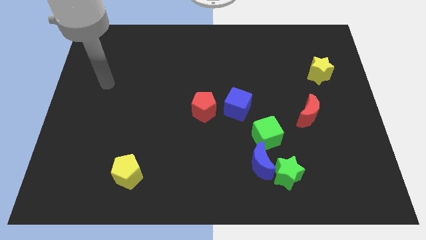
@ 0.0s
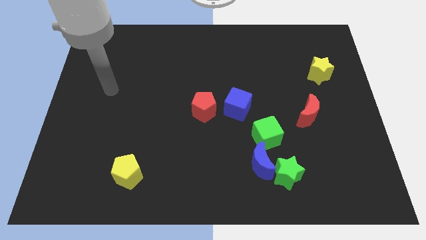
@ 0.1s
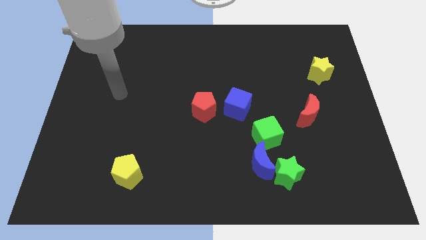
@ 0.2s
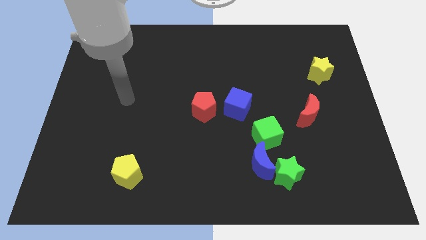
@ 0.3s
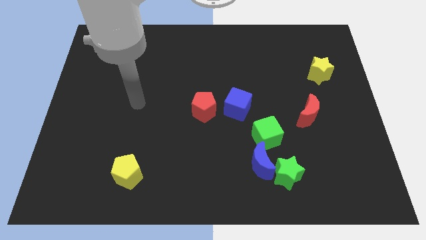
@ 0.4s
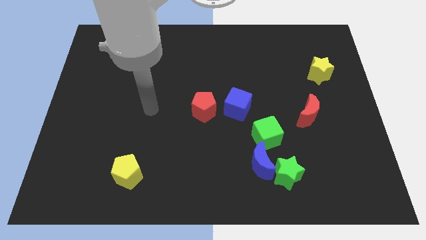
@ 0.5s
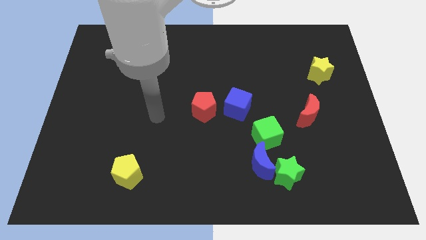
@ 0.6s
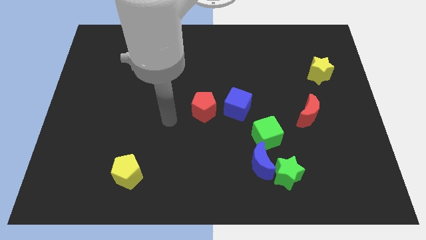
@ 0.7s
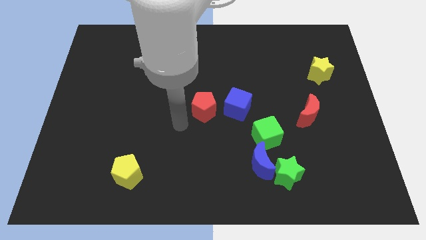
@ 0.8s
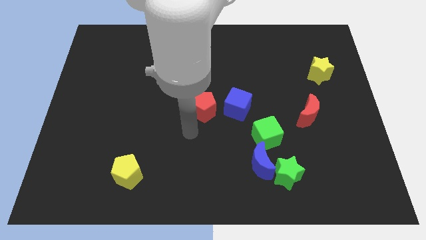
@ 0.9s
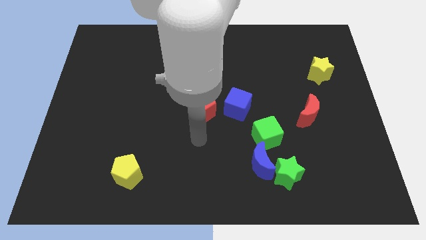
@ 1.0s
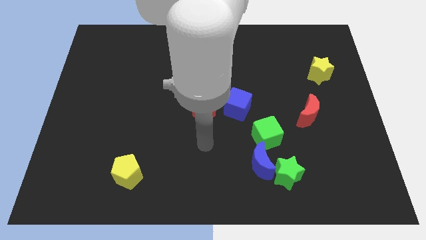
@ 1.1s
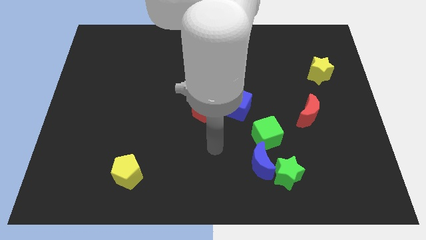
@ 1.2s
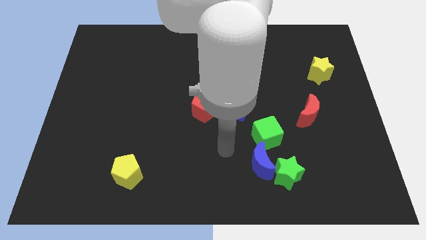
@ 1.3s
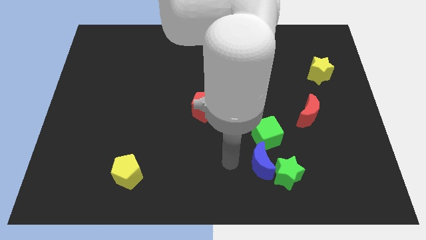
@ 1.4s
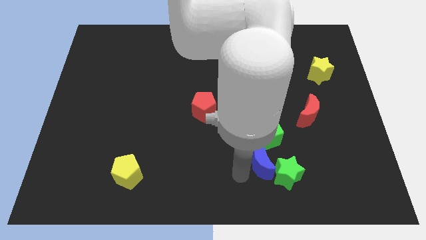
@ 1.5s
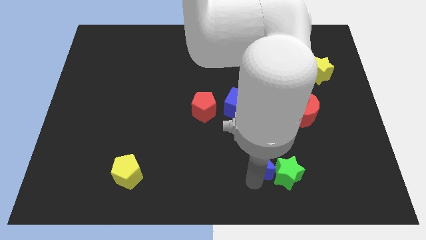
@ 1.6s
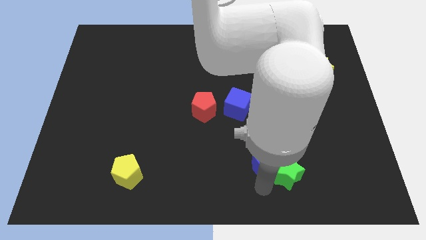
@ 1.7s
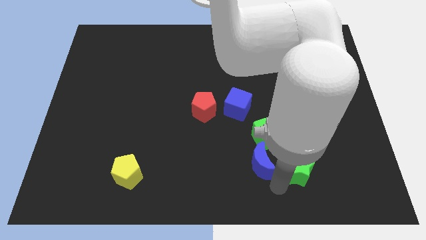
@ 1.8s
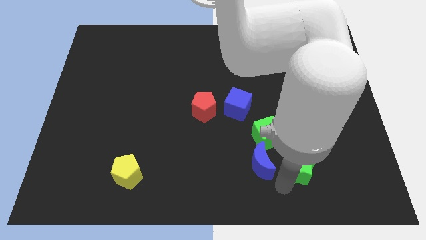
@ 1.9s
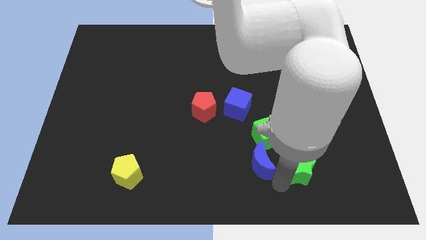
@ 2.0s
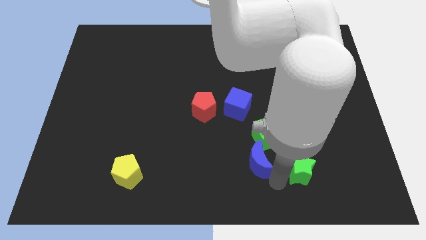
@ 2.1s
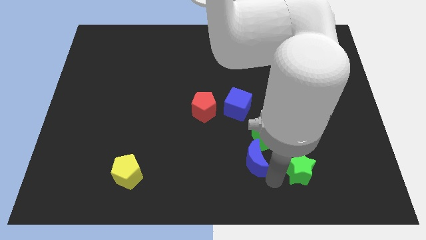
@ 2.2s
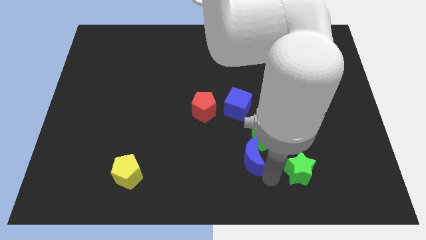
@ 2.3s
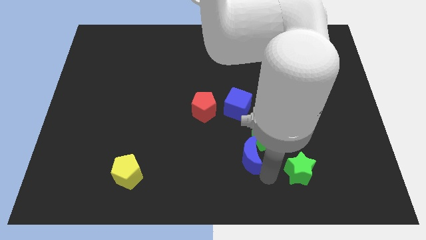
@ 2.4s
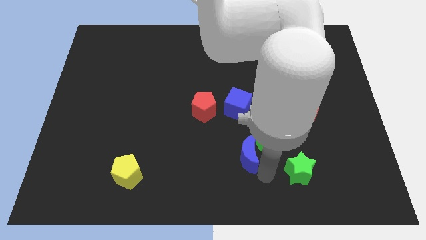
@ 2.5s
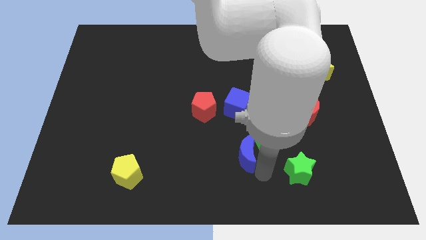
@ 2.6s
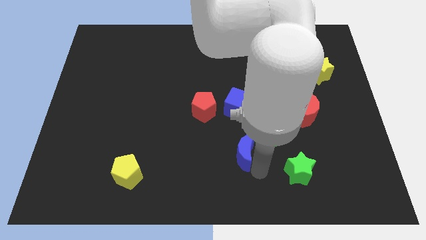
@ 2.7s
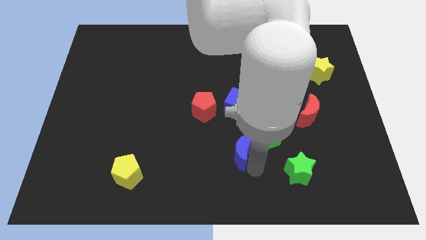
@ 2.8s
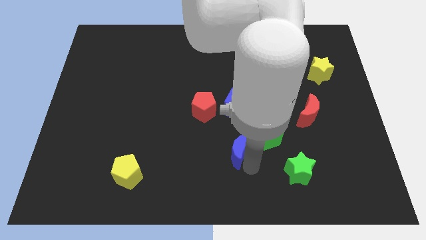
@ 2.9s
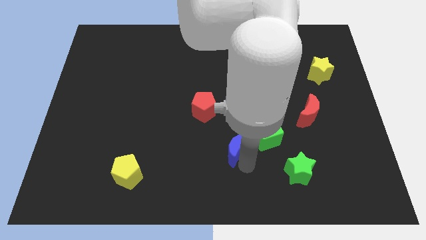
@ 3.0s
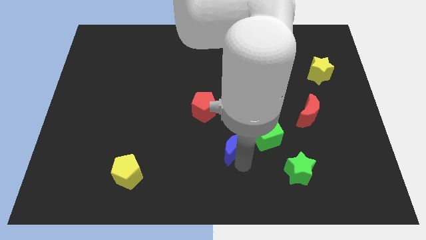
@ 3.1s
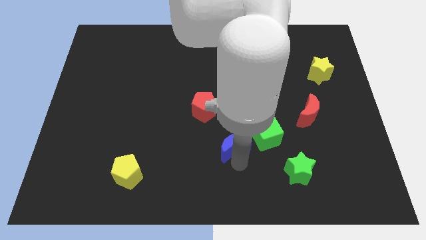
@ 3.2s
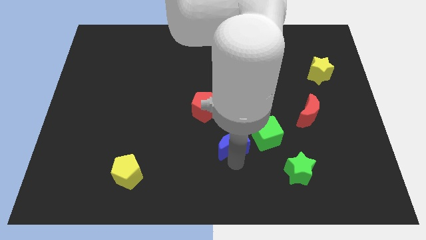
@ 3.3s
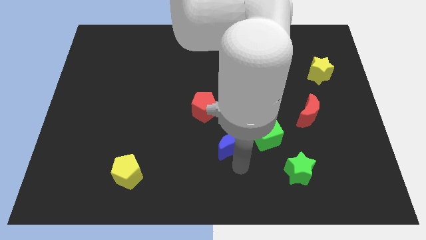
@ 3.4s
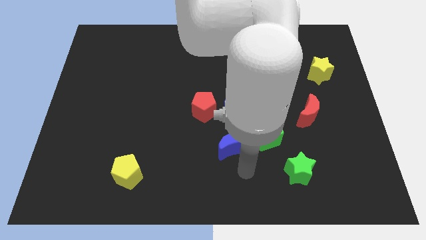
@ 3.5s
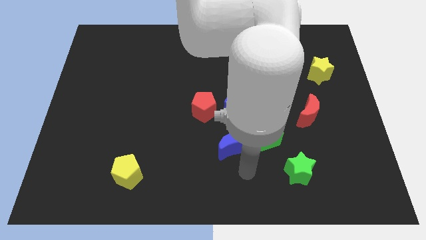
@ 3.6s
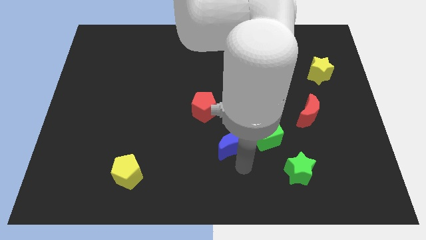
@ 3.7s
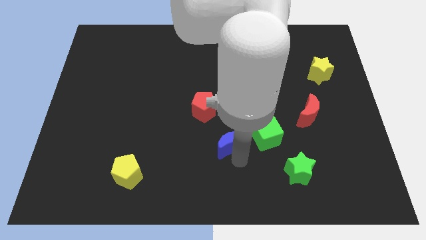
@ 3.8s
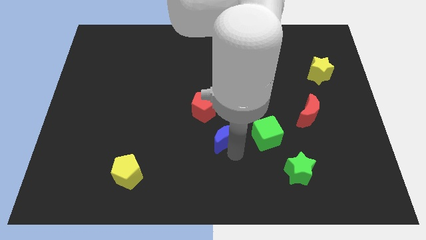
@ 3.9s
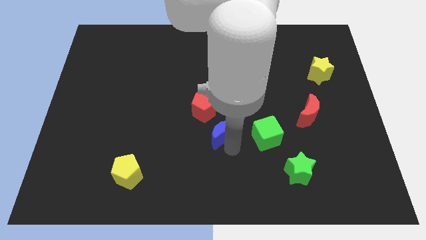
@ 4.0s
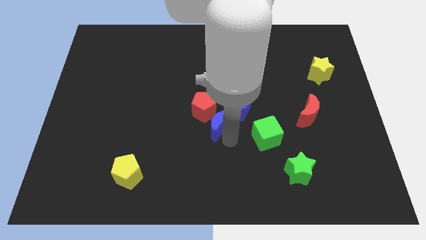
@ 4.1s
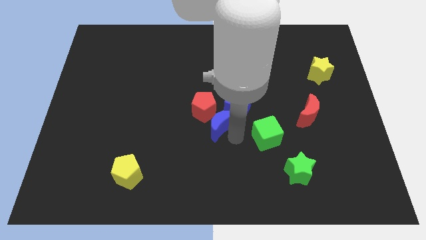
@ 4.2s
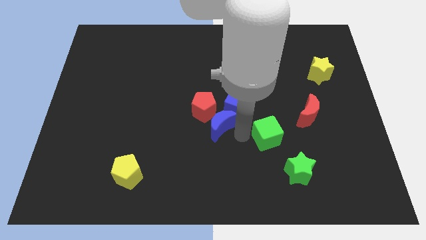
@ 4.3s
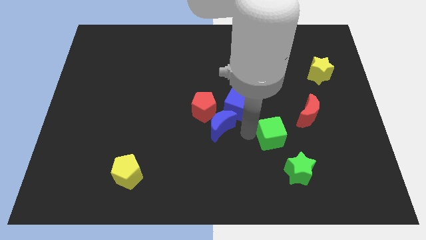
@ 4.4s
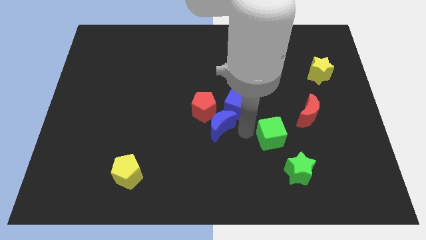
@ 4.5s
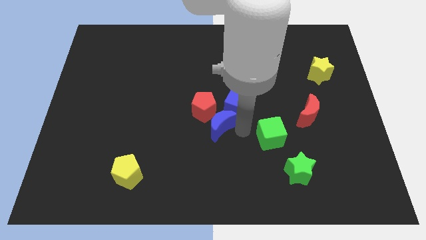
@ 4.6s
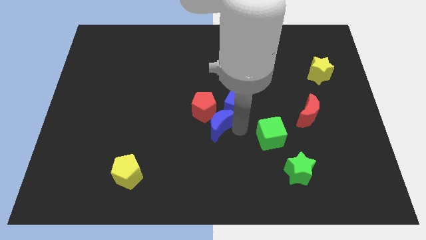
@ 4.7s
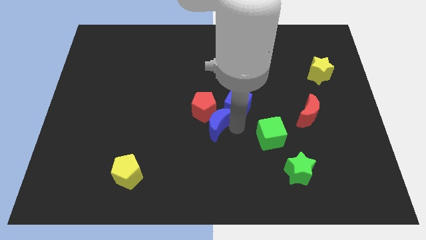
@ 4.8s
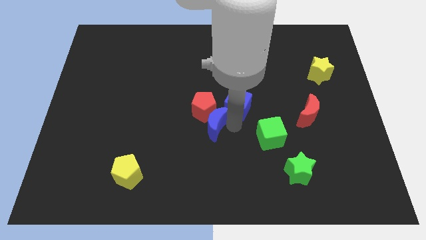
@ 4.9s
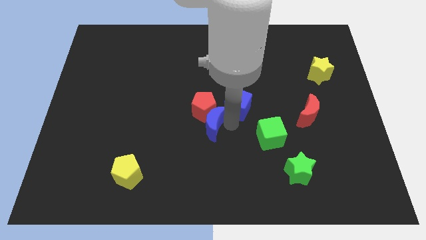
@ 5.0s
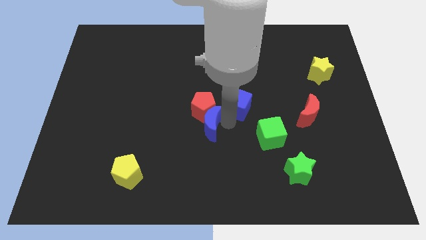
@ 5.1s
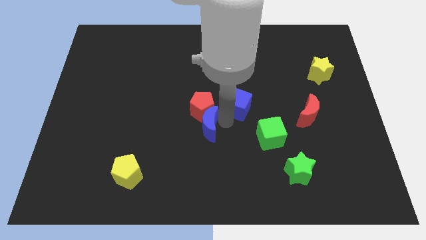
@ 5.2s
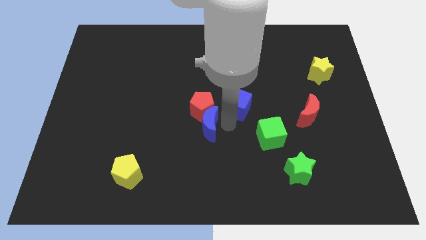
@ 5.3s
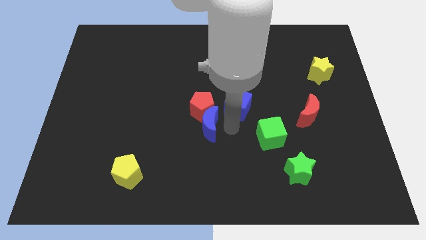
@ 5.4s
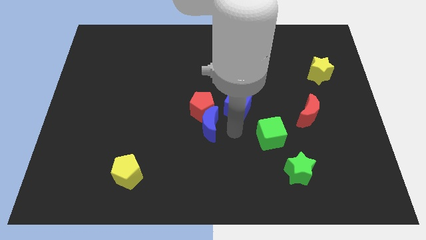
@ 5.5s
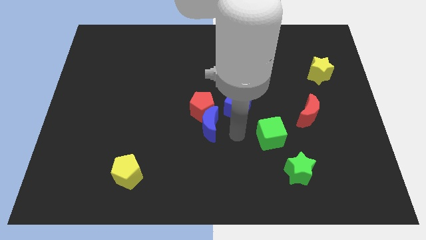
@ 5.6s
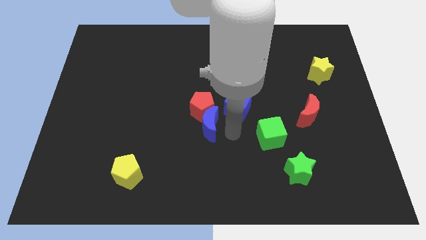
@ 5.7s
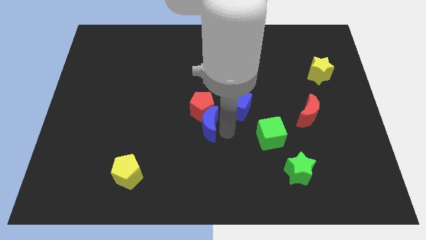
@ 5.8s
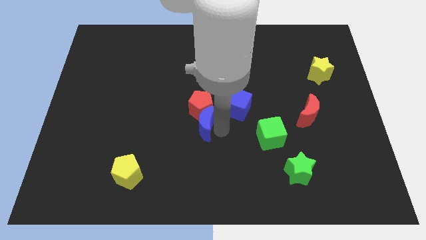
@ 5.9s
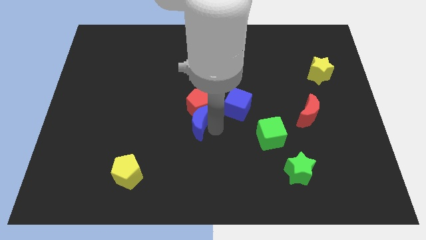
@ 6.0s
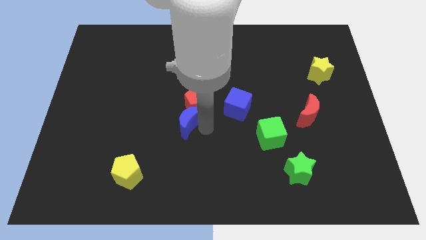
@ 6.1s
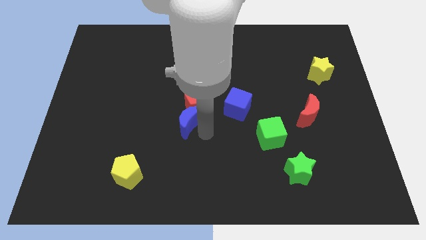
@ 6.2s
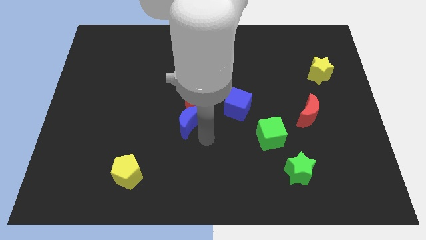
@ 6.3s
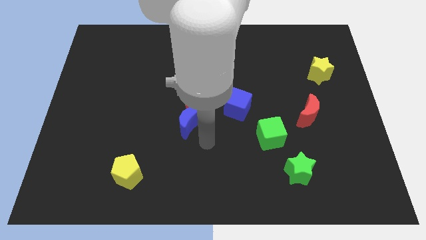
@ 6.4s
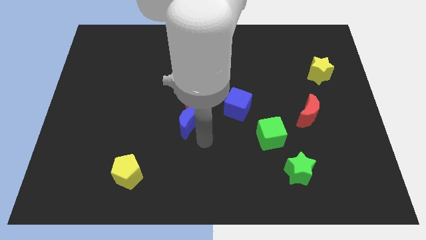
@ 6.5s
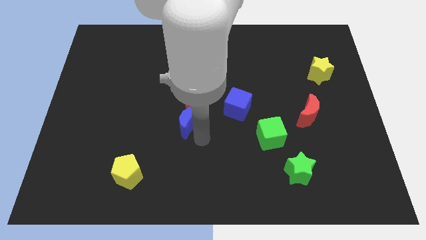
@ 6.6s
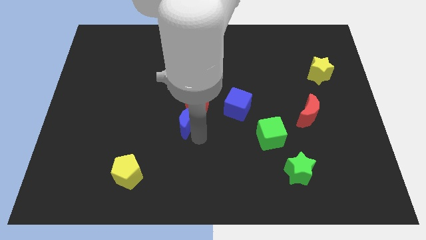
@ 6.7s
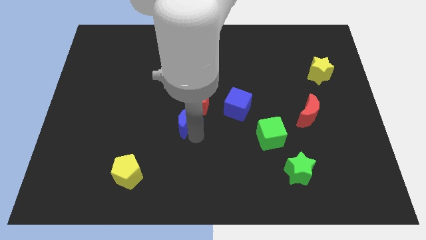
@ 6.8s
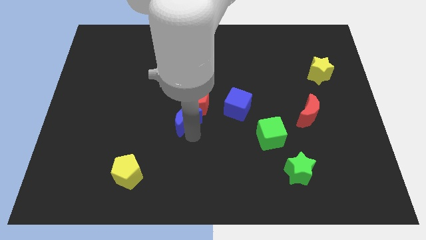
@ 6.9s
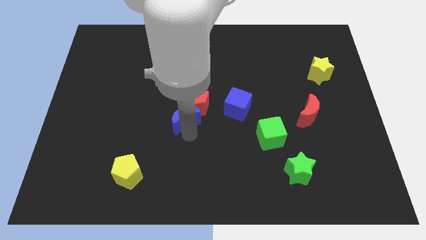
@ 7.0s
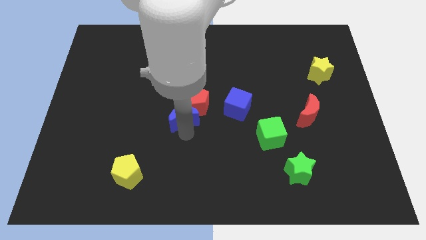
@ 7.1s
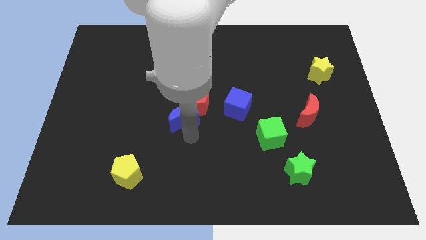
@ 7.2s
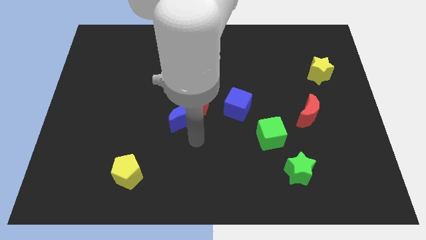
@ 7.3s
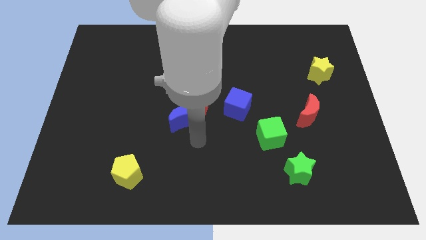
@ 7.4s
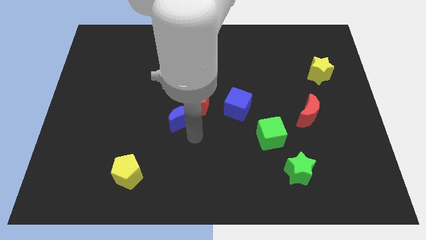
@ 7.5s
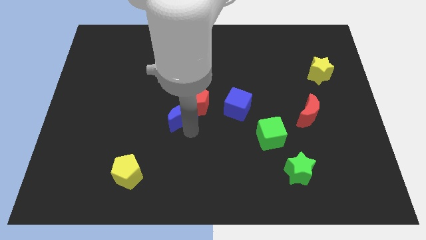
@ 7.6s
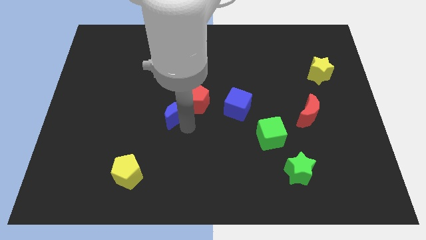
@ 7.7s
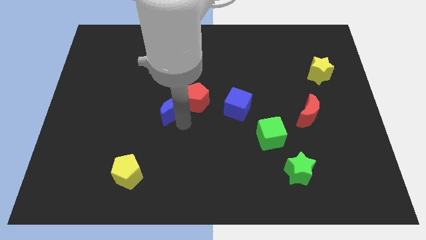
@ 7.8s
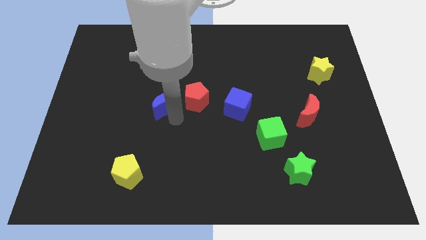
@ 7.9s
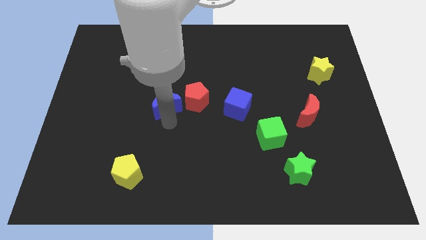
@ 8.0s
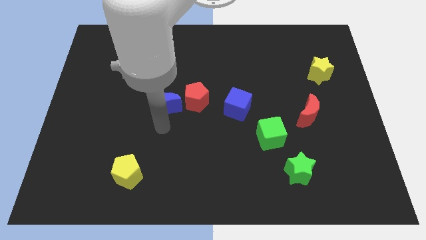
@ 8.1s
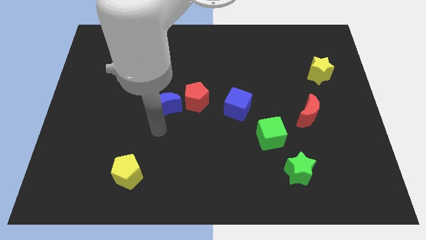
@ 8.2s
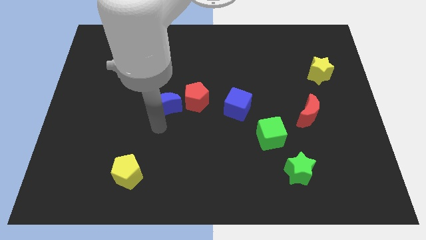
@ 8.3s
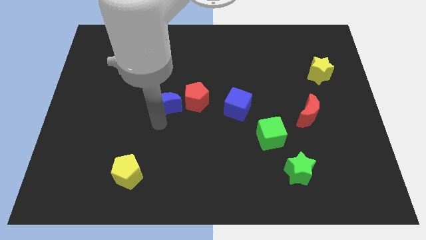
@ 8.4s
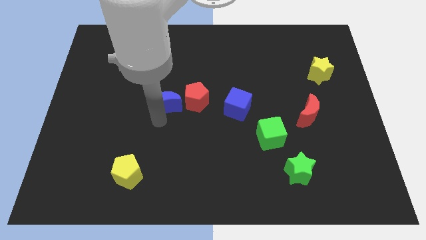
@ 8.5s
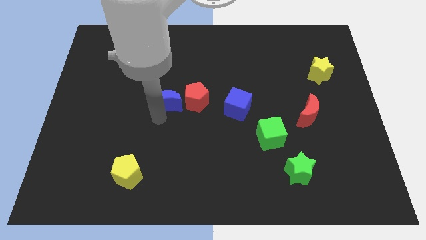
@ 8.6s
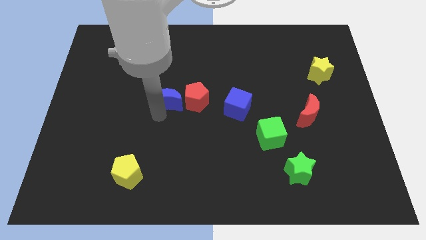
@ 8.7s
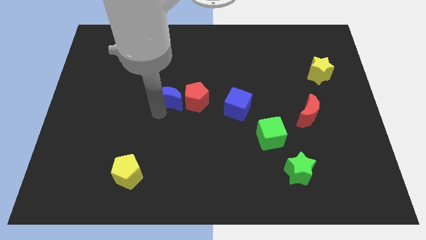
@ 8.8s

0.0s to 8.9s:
put the blue moon to the top left of the red pentagon
